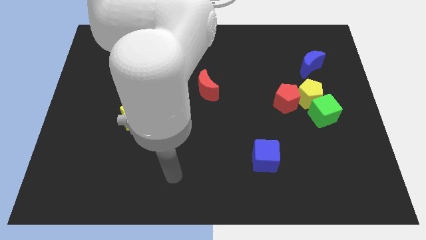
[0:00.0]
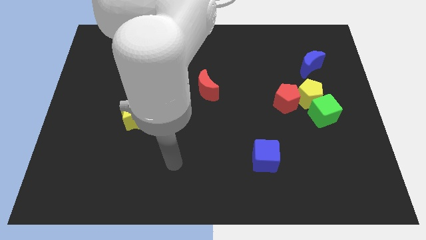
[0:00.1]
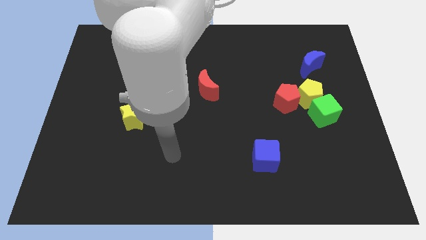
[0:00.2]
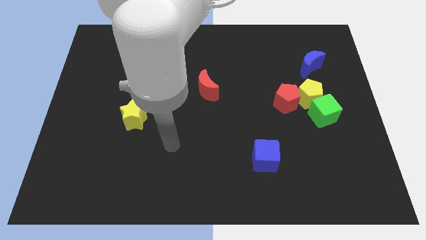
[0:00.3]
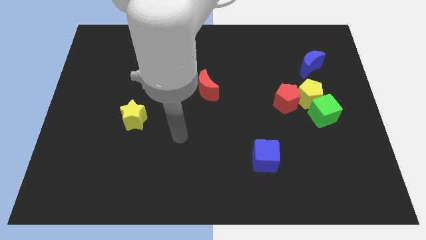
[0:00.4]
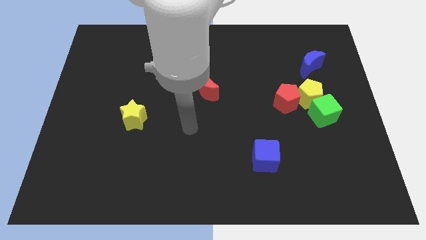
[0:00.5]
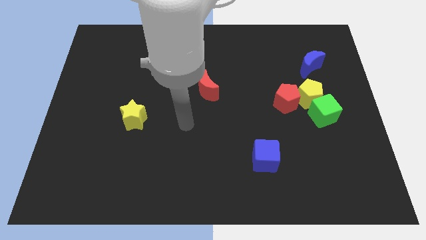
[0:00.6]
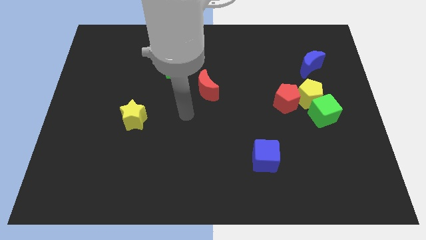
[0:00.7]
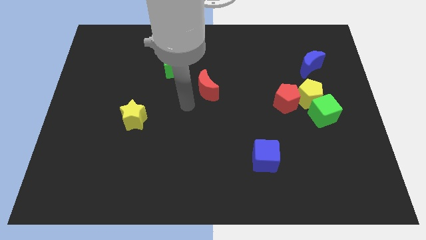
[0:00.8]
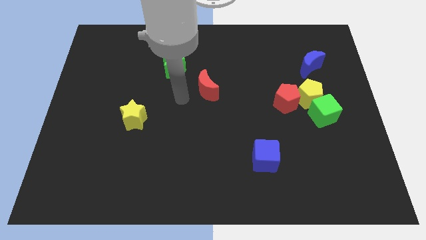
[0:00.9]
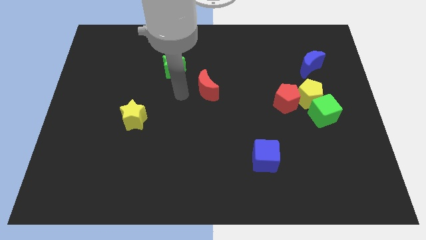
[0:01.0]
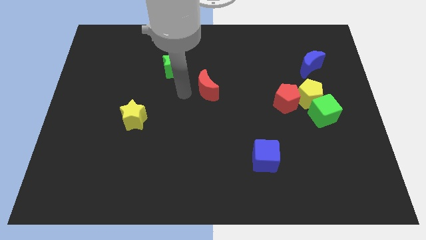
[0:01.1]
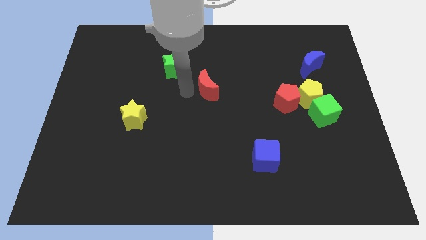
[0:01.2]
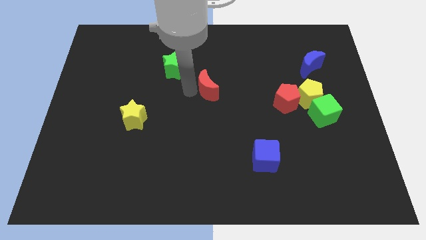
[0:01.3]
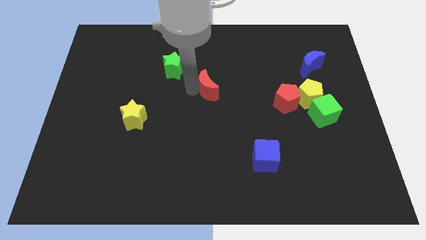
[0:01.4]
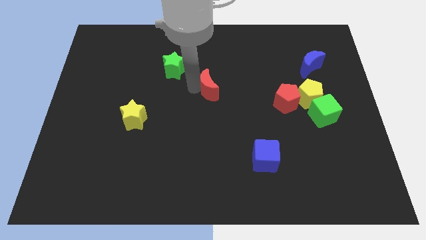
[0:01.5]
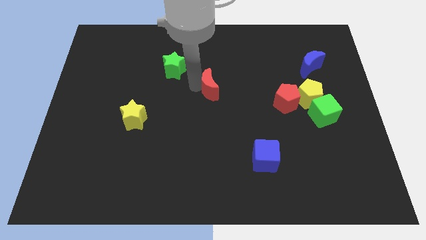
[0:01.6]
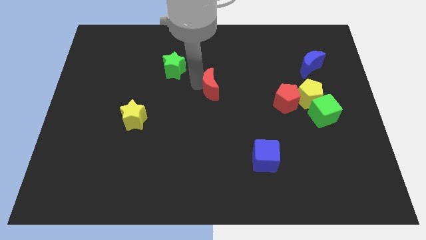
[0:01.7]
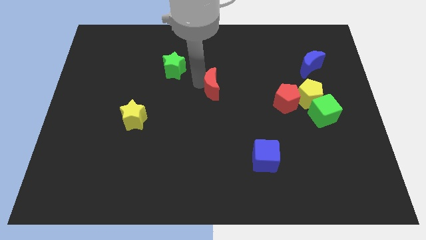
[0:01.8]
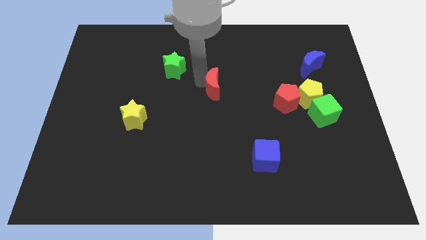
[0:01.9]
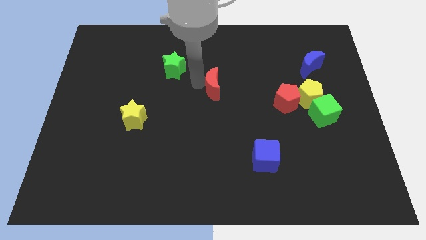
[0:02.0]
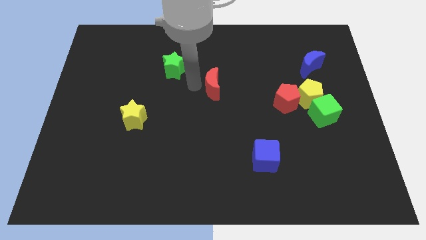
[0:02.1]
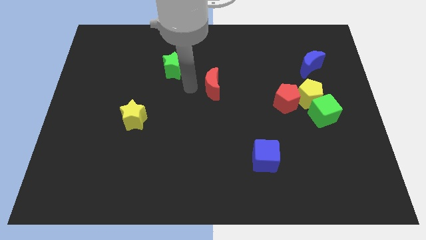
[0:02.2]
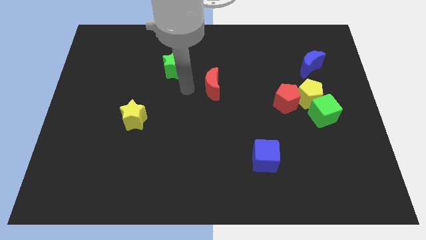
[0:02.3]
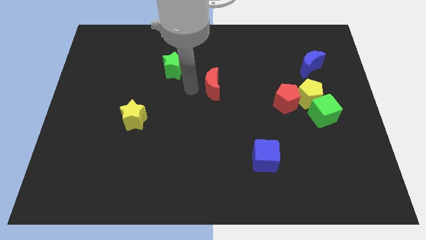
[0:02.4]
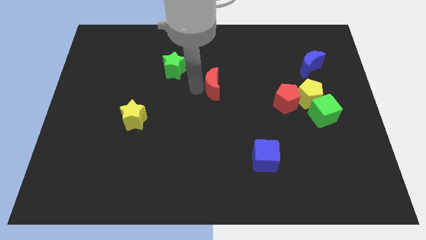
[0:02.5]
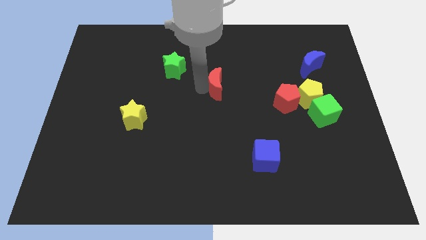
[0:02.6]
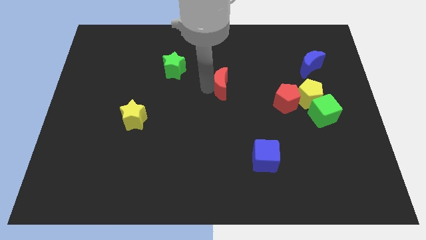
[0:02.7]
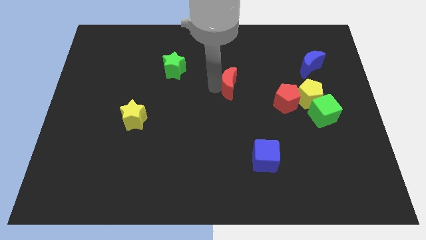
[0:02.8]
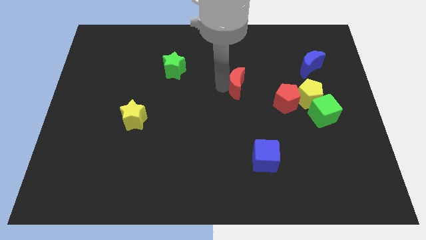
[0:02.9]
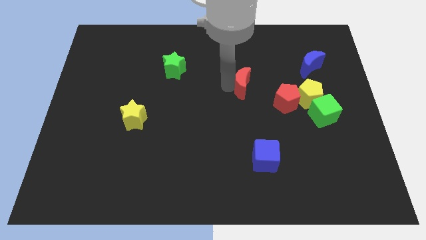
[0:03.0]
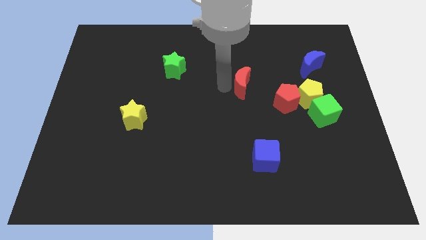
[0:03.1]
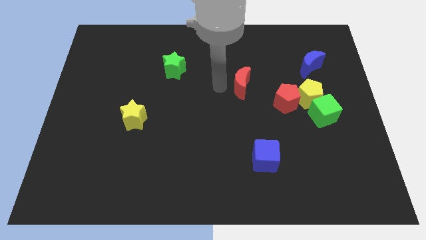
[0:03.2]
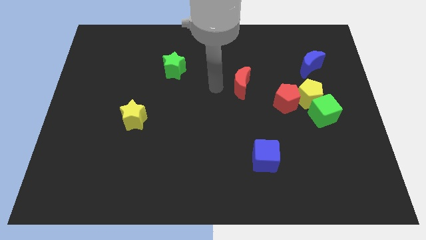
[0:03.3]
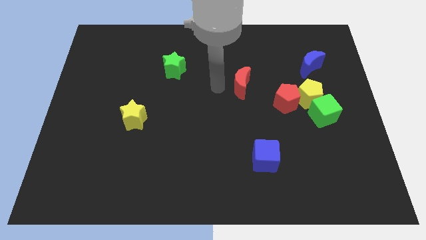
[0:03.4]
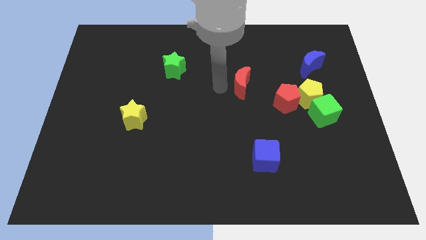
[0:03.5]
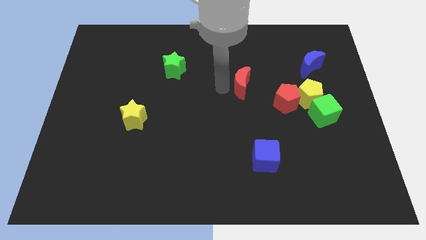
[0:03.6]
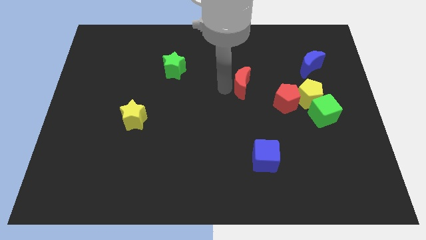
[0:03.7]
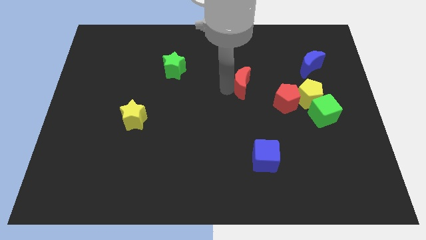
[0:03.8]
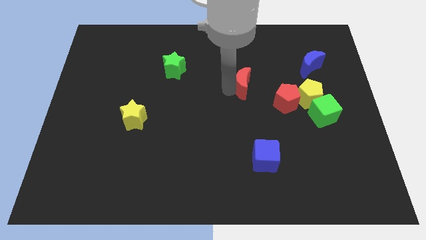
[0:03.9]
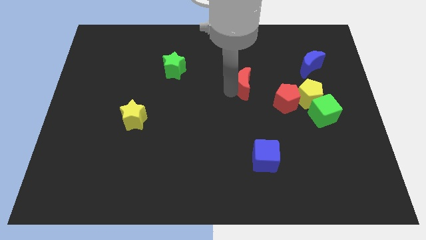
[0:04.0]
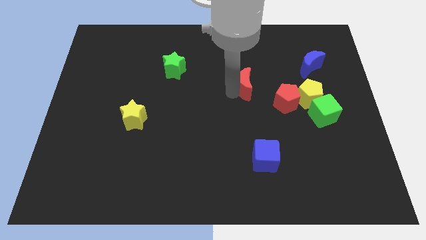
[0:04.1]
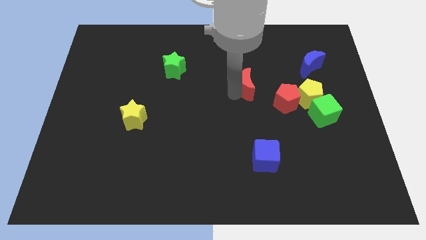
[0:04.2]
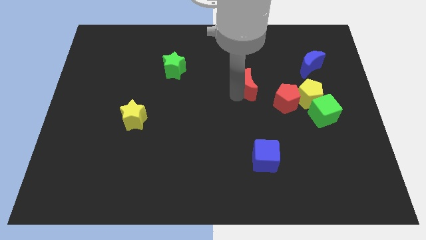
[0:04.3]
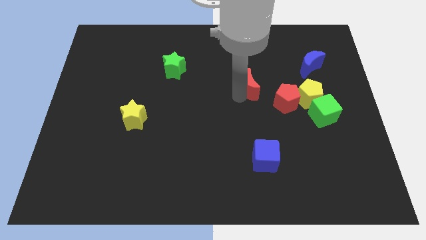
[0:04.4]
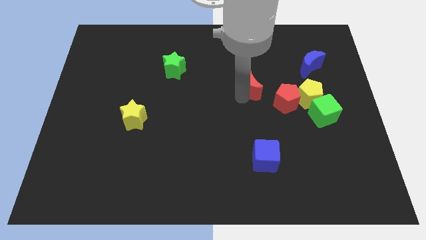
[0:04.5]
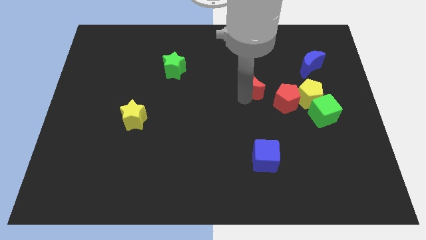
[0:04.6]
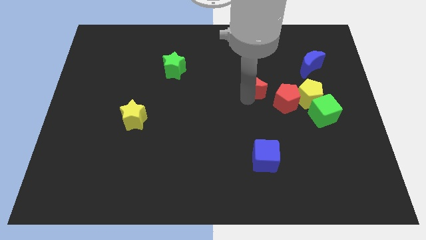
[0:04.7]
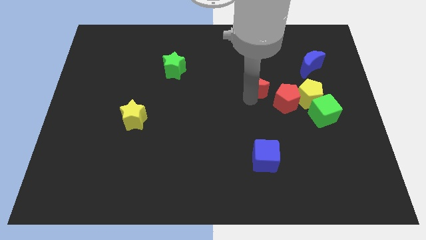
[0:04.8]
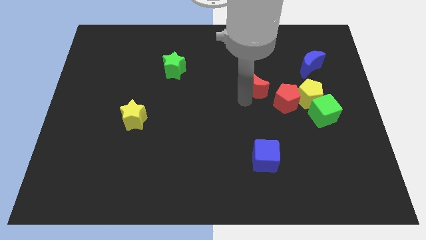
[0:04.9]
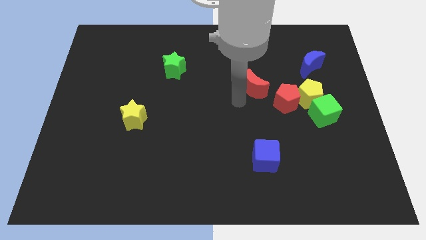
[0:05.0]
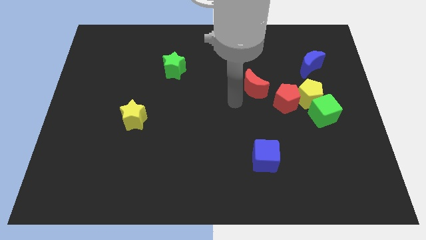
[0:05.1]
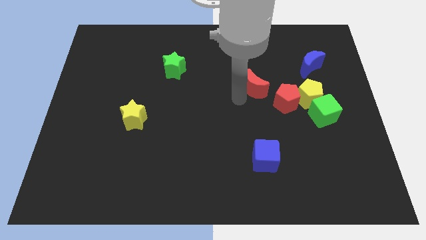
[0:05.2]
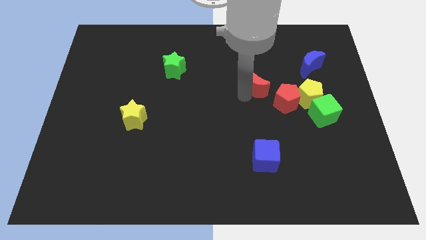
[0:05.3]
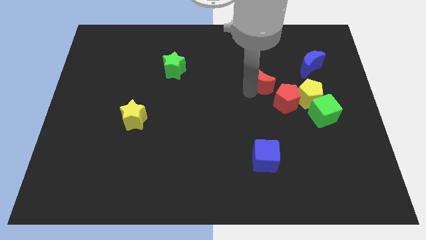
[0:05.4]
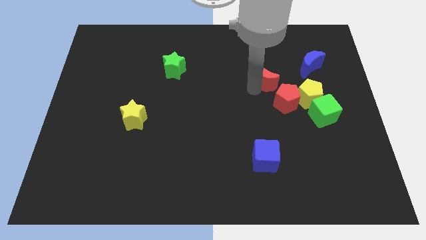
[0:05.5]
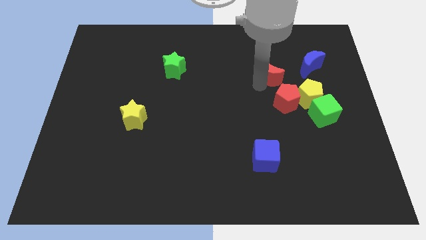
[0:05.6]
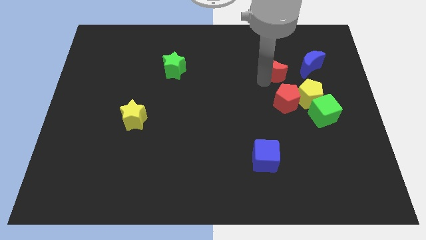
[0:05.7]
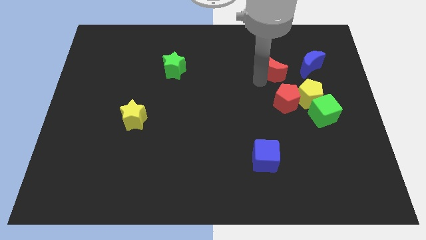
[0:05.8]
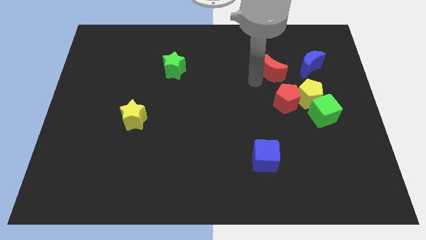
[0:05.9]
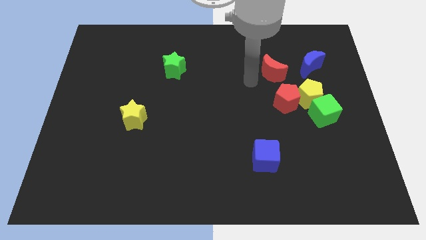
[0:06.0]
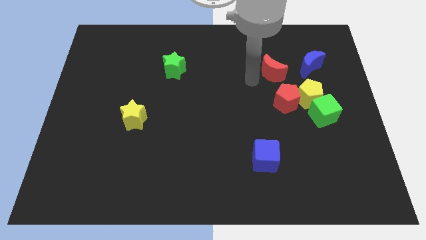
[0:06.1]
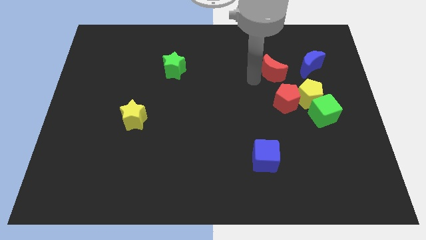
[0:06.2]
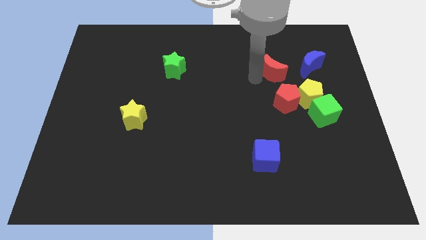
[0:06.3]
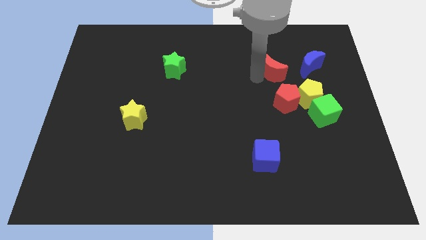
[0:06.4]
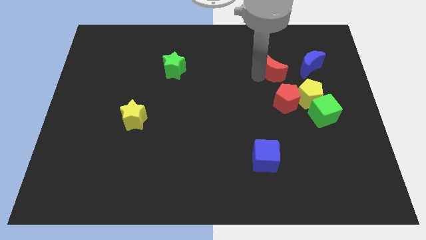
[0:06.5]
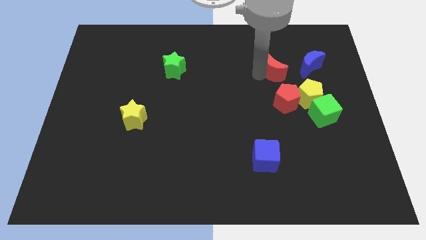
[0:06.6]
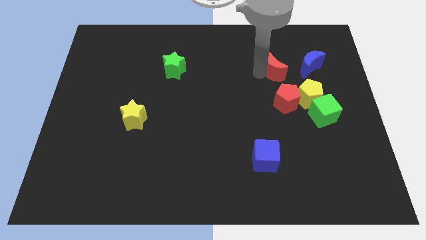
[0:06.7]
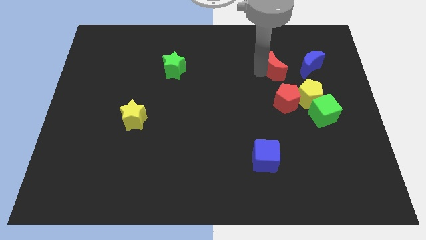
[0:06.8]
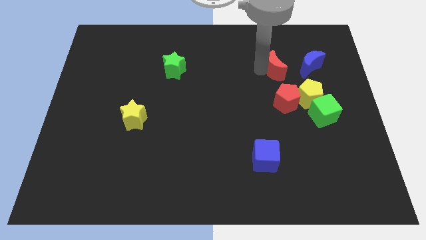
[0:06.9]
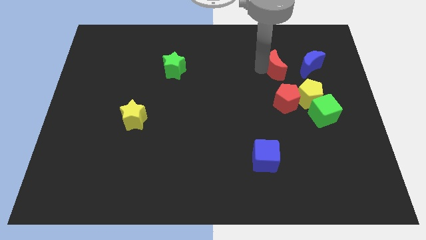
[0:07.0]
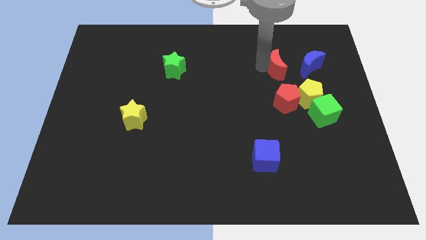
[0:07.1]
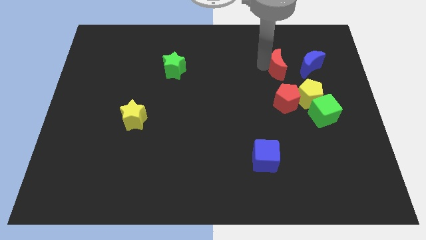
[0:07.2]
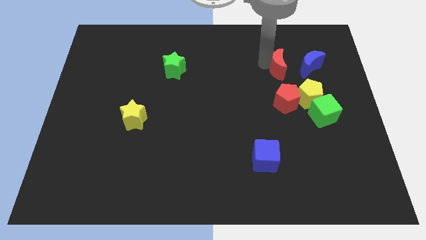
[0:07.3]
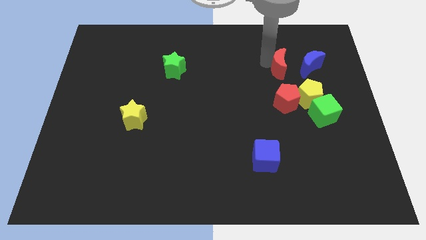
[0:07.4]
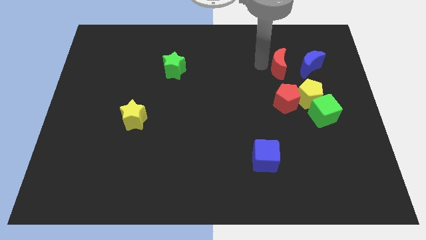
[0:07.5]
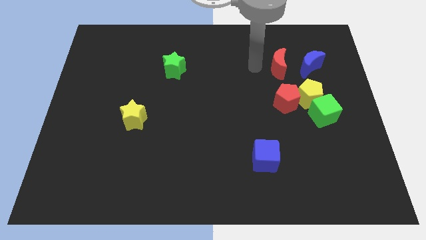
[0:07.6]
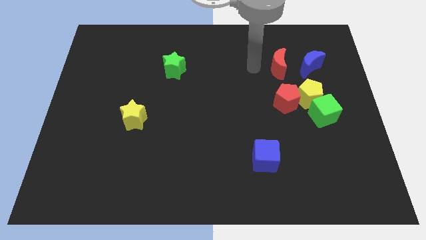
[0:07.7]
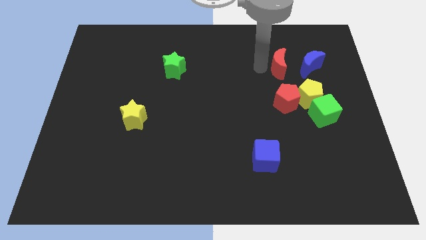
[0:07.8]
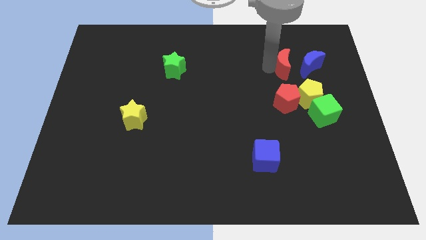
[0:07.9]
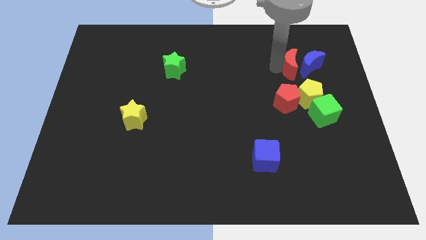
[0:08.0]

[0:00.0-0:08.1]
slide the red moon towards the blue moon
